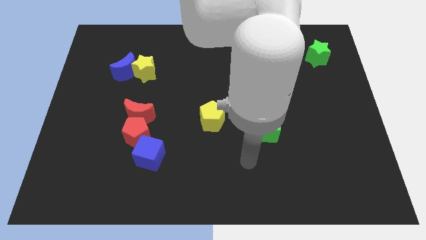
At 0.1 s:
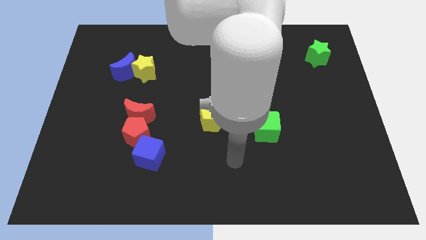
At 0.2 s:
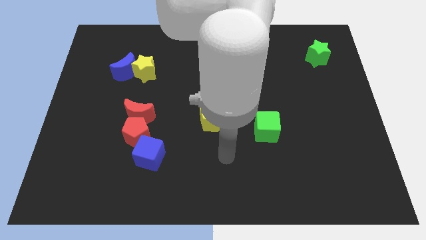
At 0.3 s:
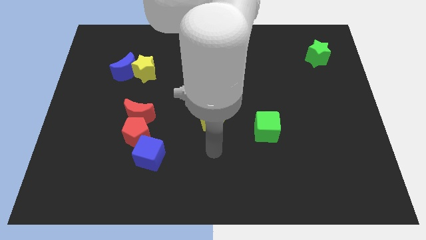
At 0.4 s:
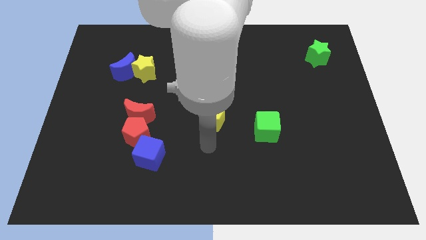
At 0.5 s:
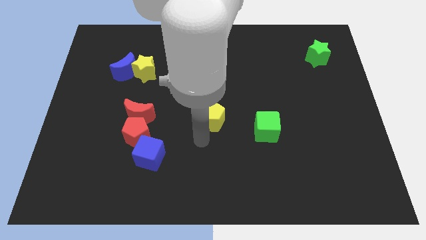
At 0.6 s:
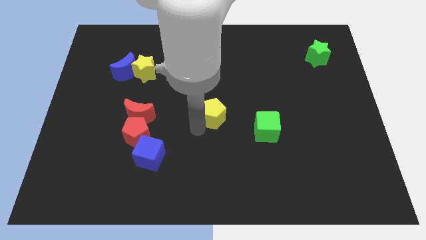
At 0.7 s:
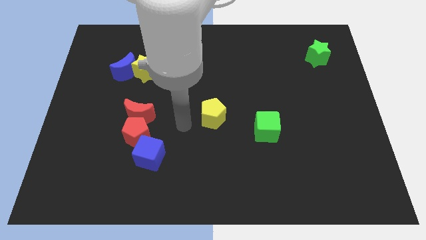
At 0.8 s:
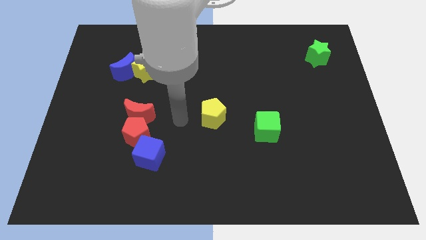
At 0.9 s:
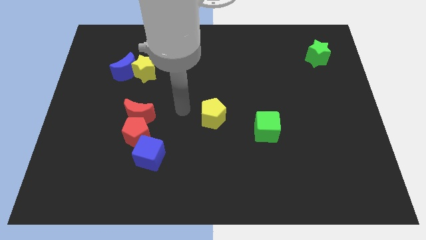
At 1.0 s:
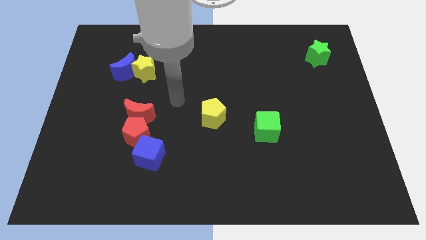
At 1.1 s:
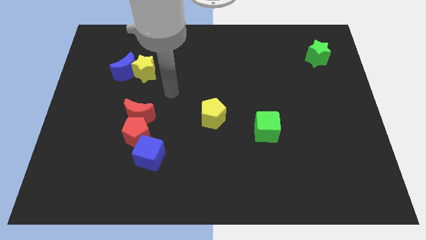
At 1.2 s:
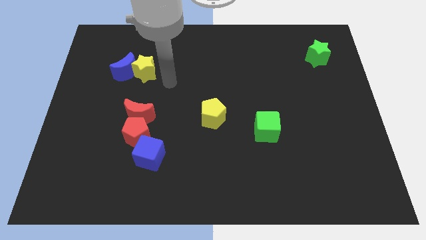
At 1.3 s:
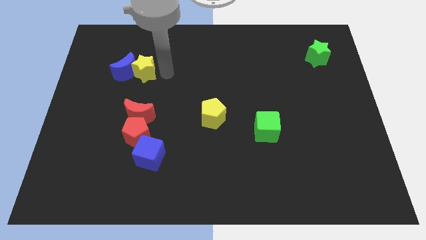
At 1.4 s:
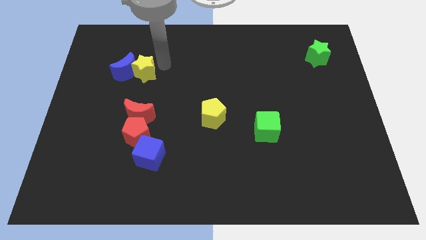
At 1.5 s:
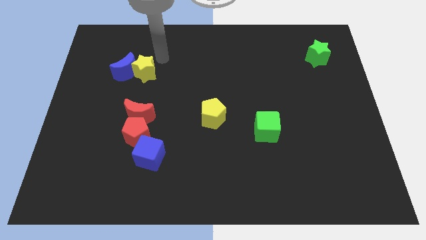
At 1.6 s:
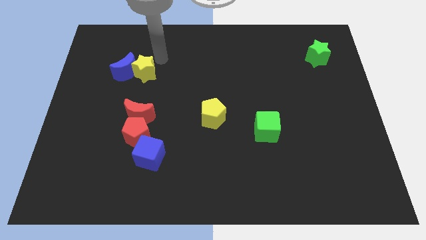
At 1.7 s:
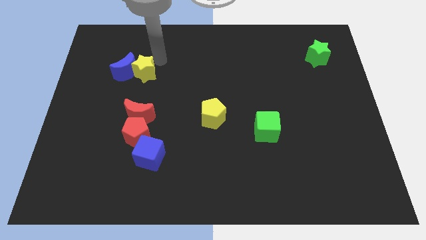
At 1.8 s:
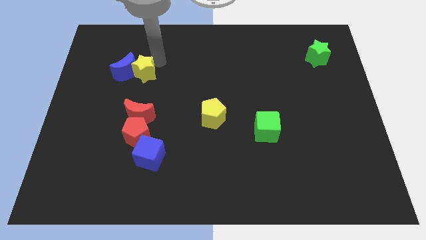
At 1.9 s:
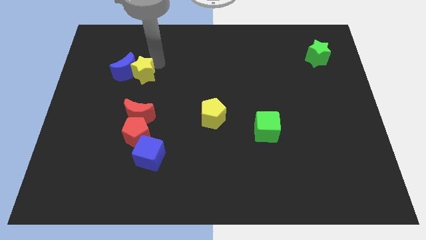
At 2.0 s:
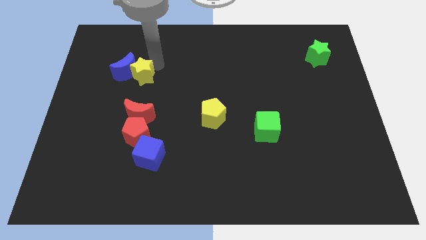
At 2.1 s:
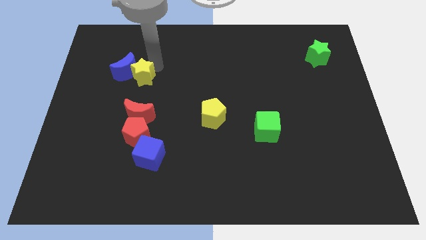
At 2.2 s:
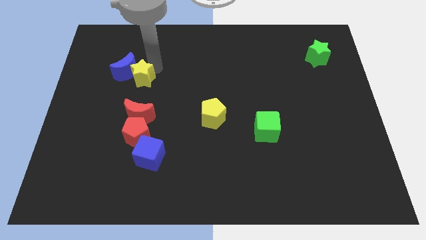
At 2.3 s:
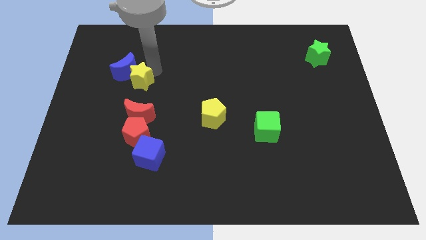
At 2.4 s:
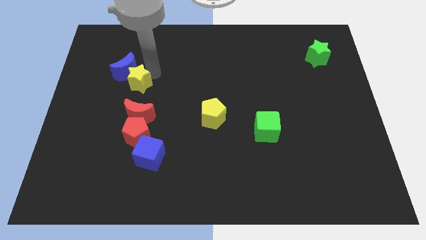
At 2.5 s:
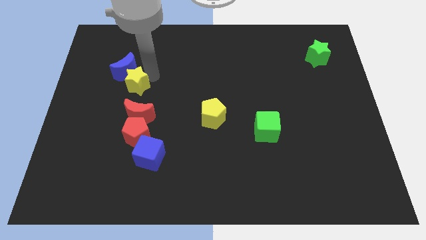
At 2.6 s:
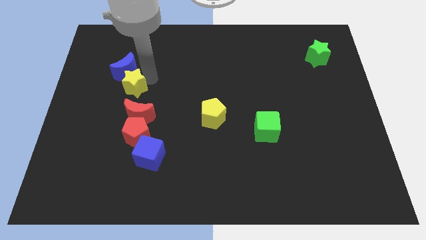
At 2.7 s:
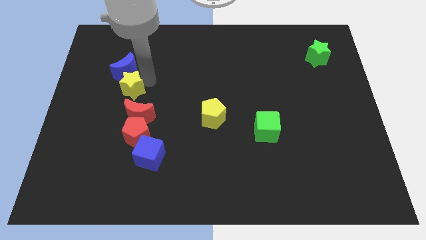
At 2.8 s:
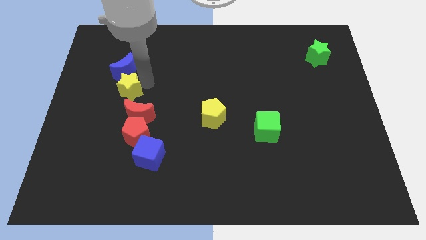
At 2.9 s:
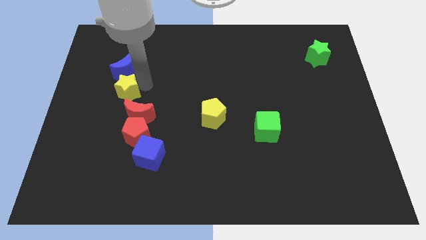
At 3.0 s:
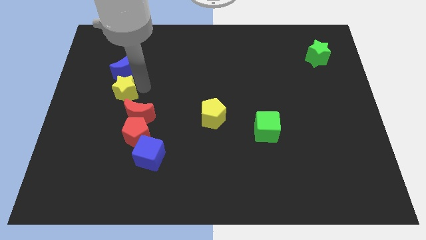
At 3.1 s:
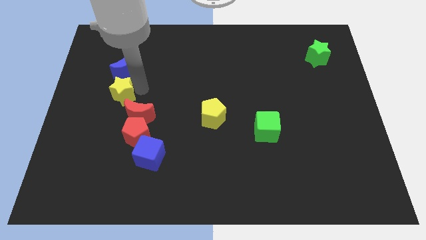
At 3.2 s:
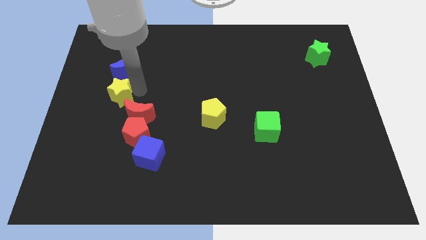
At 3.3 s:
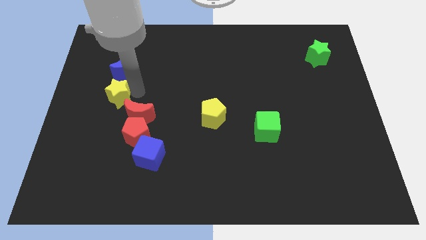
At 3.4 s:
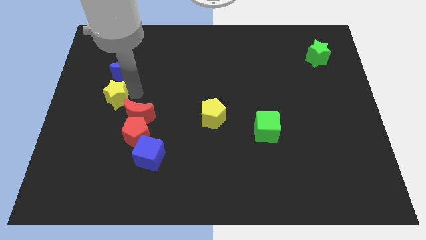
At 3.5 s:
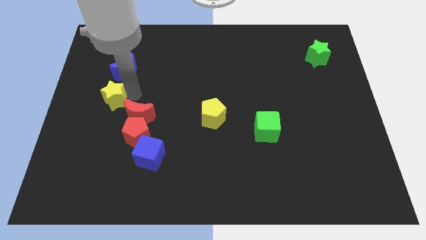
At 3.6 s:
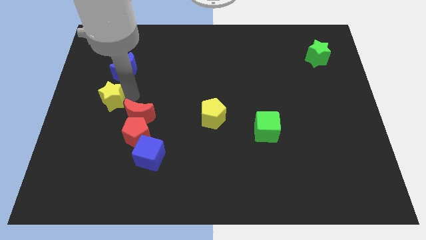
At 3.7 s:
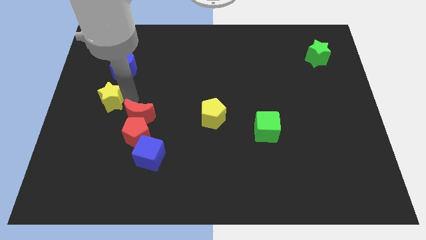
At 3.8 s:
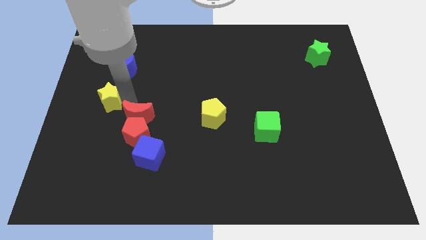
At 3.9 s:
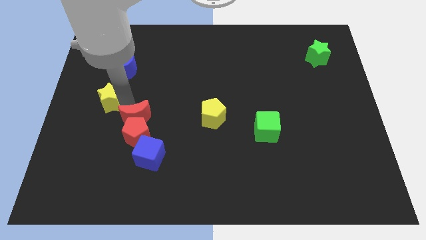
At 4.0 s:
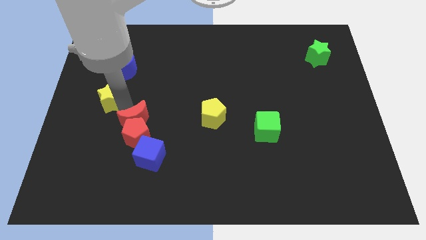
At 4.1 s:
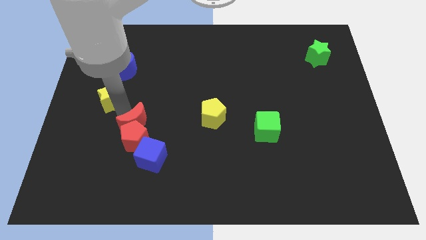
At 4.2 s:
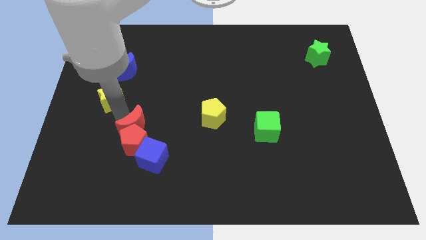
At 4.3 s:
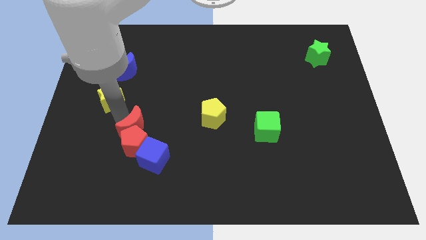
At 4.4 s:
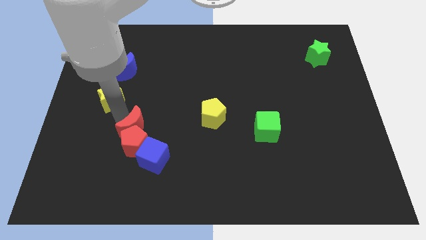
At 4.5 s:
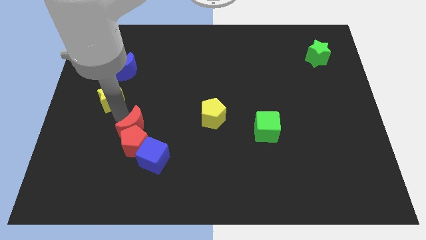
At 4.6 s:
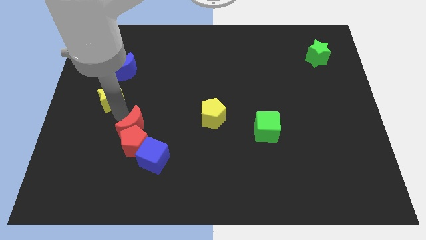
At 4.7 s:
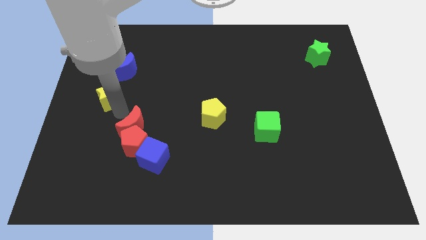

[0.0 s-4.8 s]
push the yellow star to the center left

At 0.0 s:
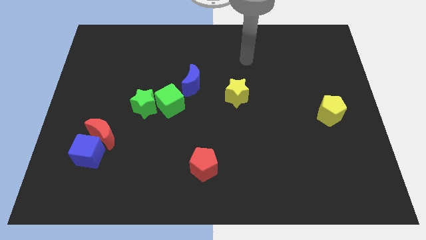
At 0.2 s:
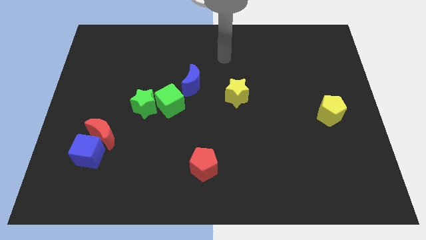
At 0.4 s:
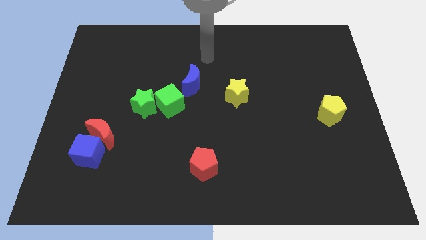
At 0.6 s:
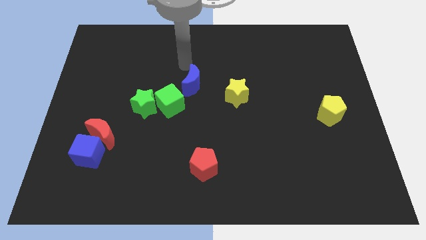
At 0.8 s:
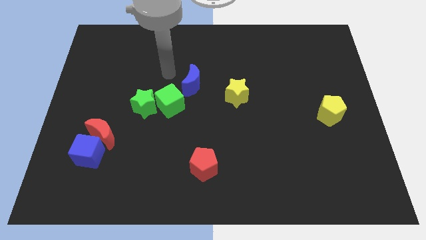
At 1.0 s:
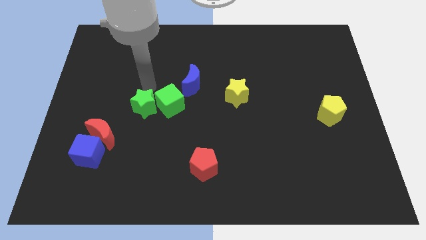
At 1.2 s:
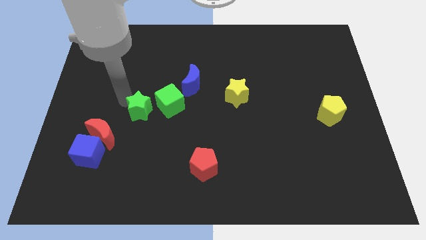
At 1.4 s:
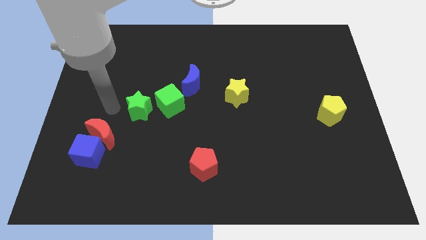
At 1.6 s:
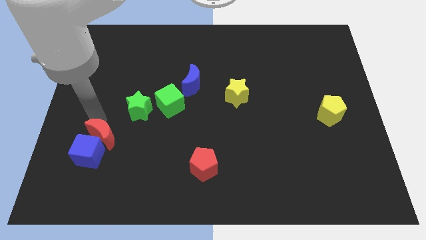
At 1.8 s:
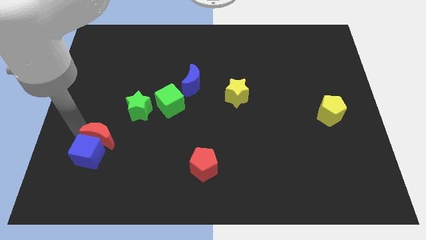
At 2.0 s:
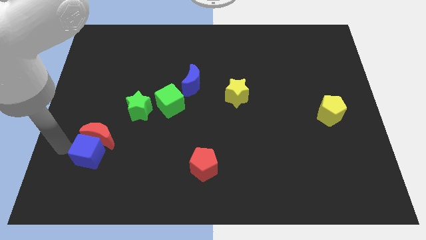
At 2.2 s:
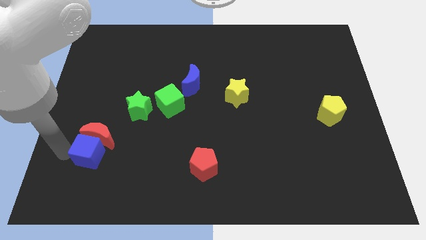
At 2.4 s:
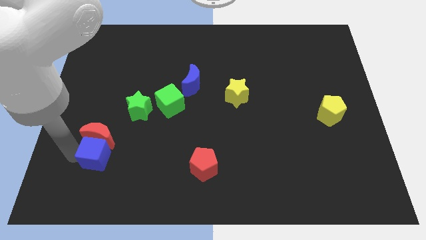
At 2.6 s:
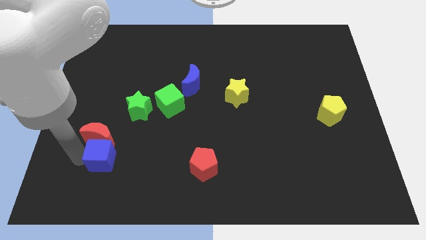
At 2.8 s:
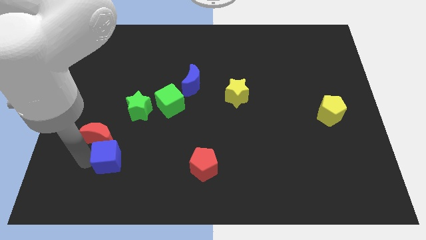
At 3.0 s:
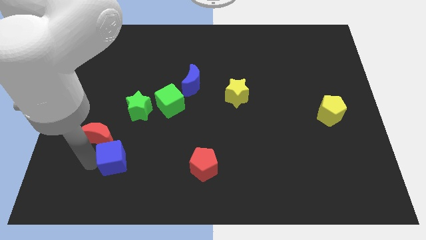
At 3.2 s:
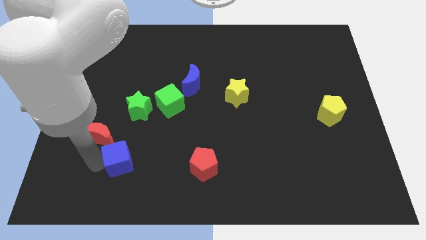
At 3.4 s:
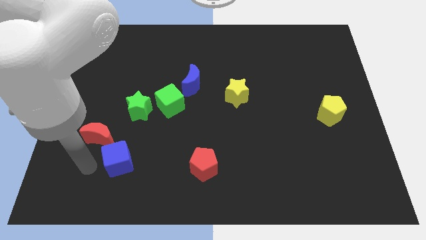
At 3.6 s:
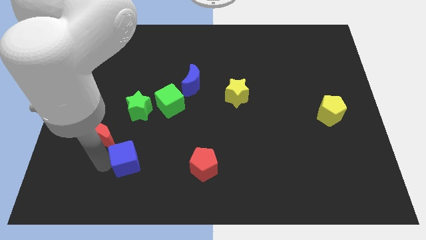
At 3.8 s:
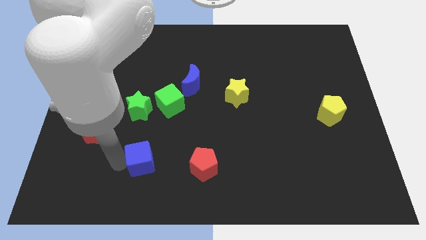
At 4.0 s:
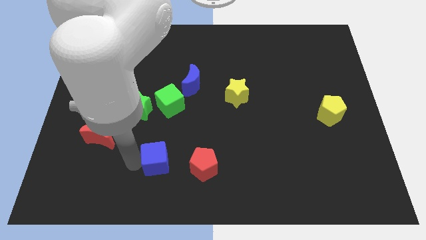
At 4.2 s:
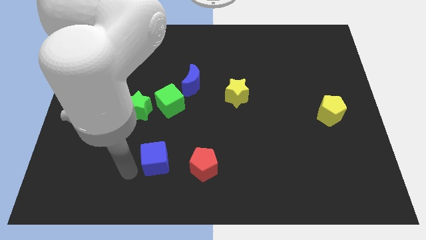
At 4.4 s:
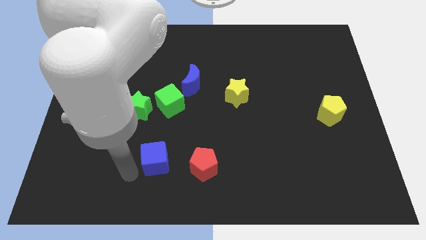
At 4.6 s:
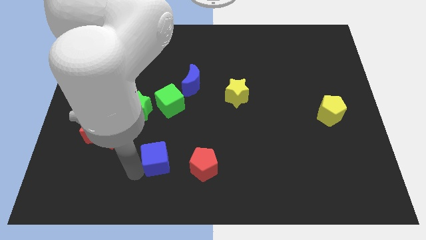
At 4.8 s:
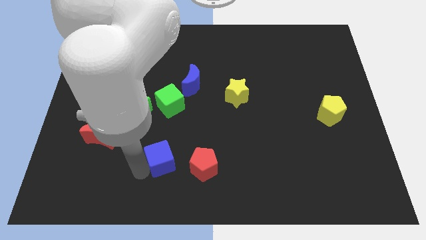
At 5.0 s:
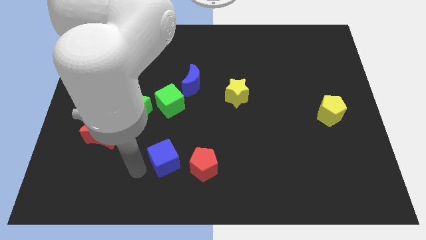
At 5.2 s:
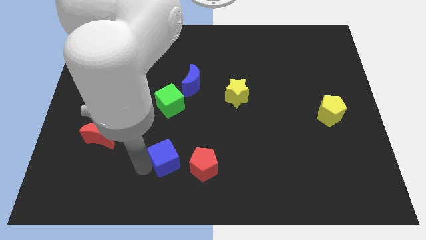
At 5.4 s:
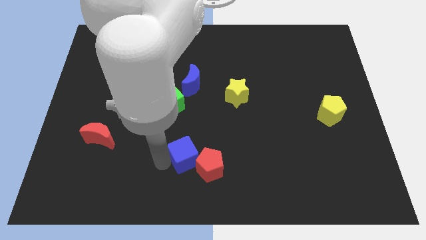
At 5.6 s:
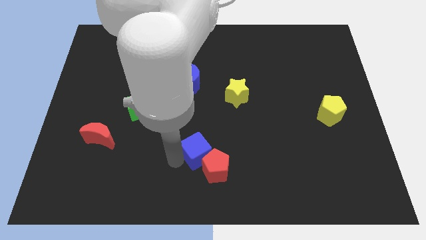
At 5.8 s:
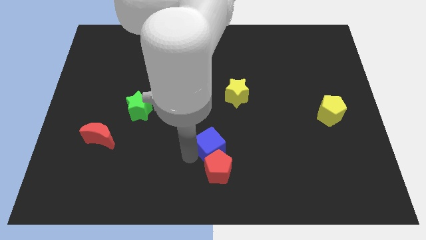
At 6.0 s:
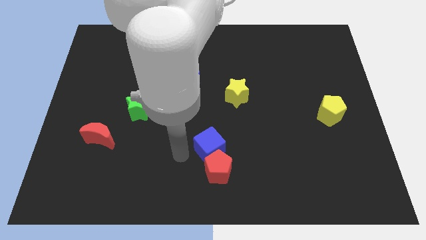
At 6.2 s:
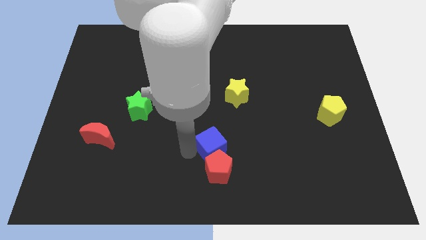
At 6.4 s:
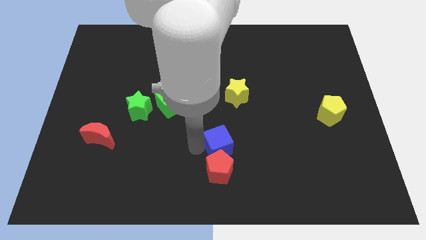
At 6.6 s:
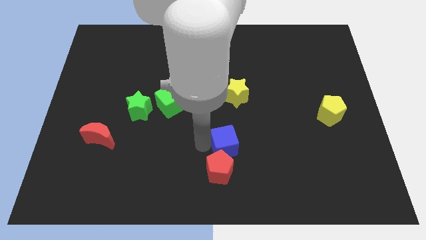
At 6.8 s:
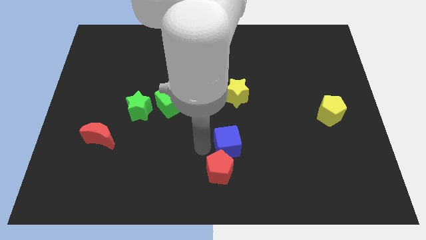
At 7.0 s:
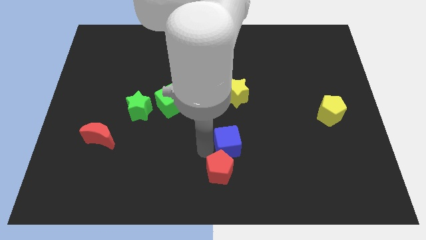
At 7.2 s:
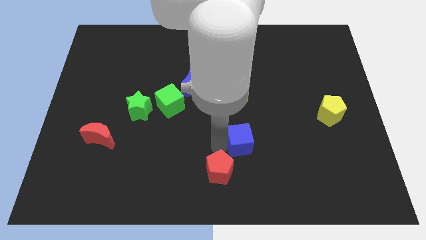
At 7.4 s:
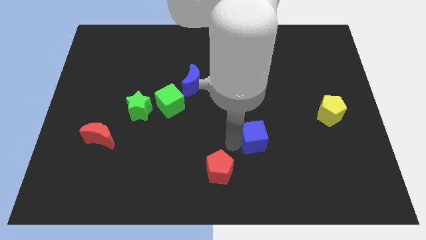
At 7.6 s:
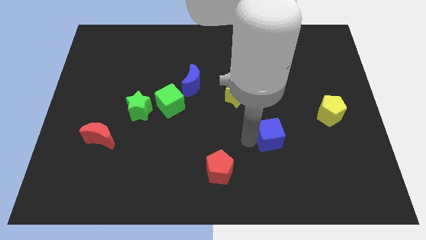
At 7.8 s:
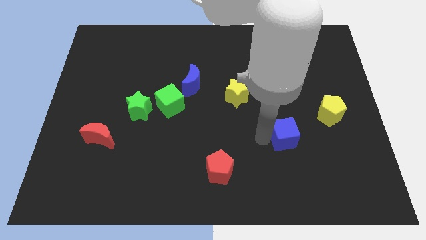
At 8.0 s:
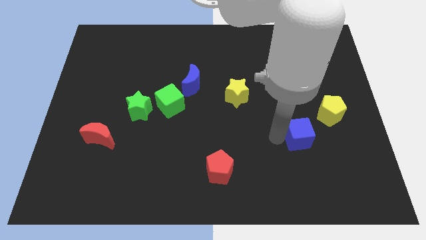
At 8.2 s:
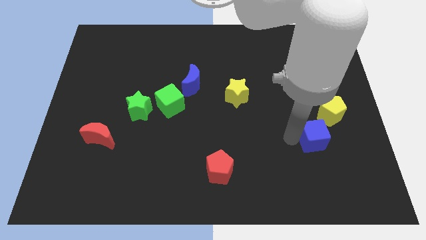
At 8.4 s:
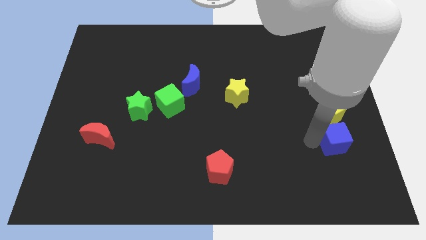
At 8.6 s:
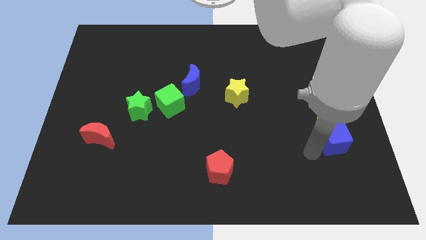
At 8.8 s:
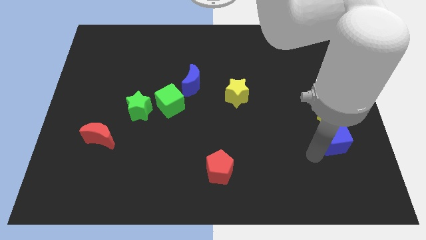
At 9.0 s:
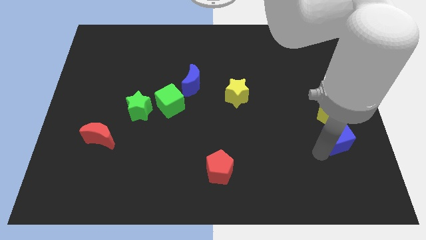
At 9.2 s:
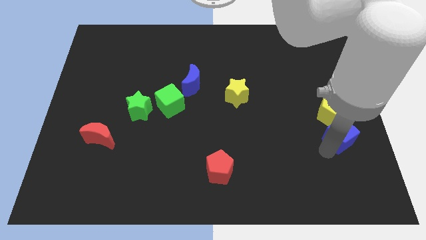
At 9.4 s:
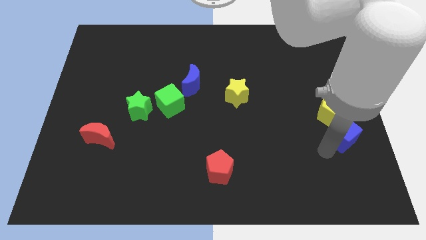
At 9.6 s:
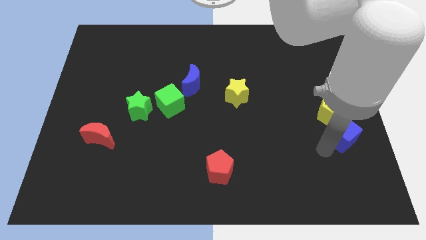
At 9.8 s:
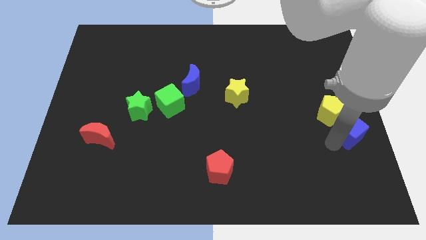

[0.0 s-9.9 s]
push the blue cube to the right side of the board
